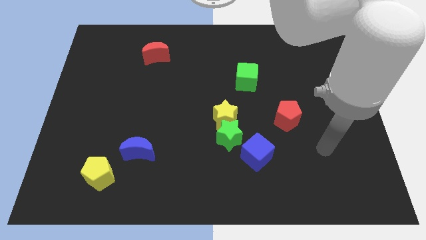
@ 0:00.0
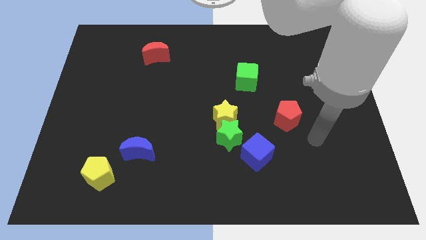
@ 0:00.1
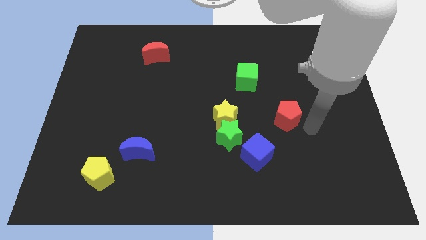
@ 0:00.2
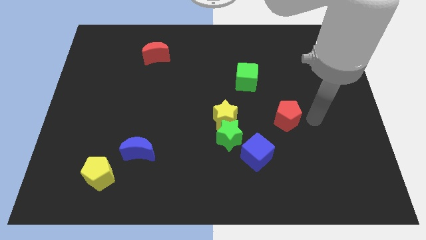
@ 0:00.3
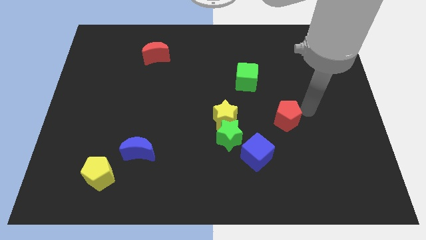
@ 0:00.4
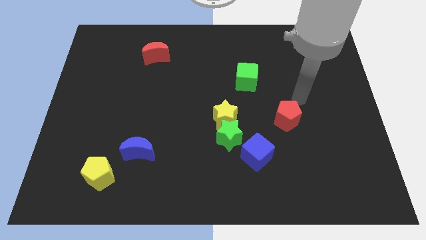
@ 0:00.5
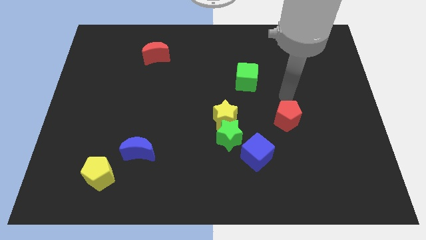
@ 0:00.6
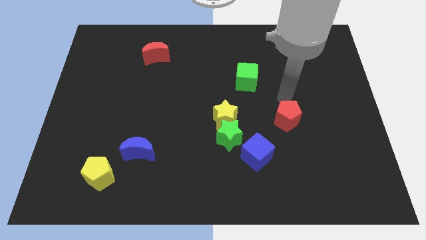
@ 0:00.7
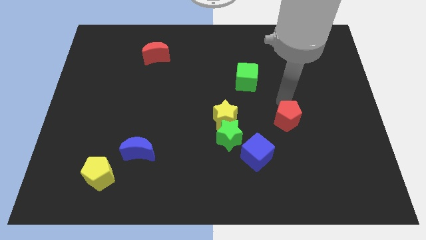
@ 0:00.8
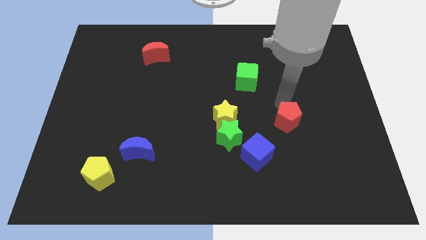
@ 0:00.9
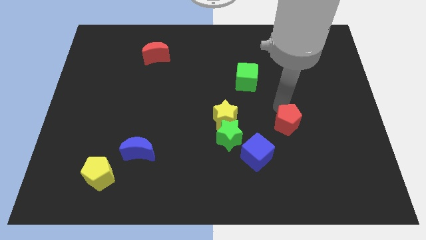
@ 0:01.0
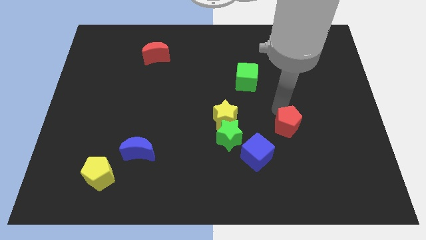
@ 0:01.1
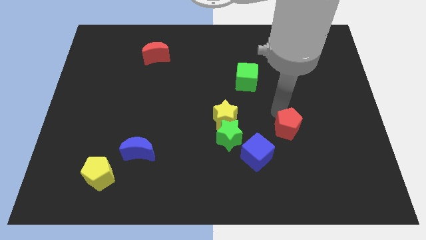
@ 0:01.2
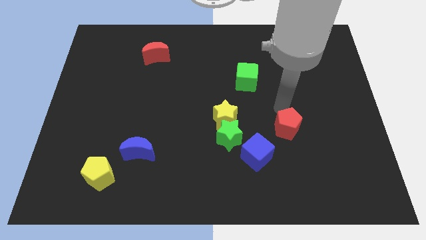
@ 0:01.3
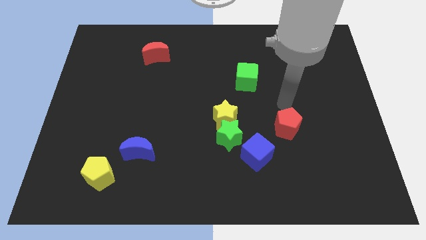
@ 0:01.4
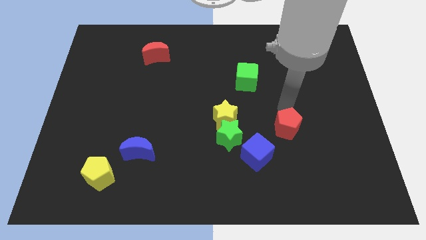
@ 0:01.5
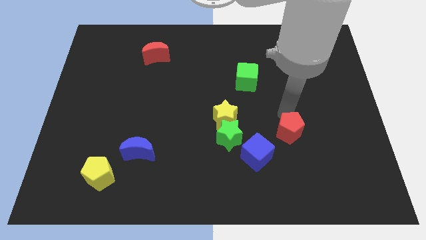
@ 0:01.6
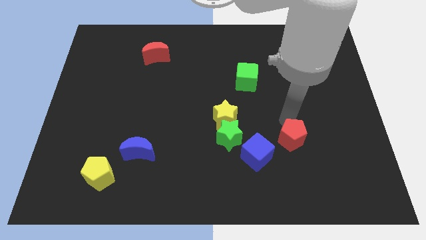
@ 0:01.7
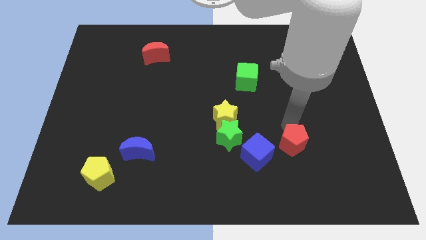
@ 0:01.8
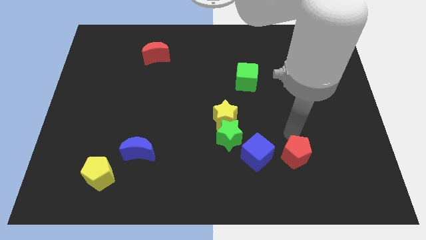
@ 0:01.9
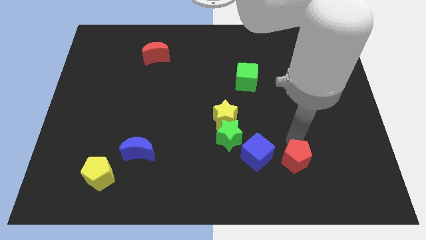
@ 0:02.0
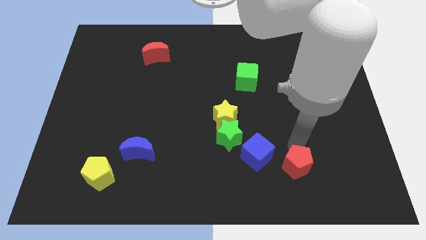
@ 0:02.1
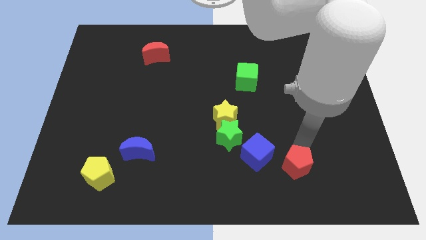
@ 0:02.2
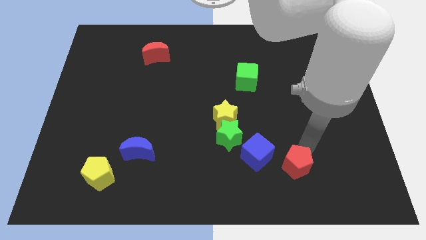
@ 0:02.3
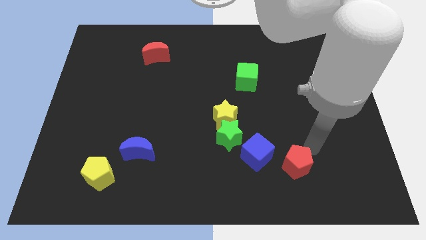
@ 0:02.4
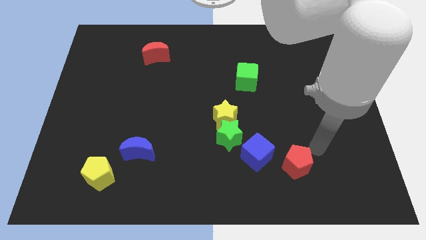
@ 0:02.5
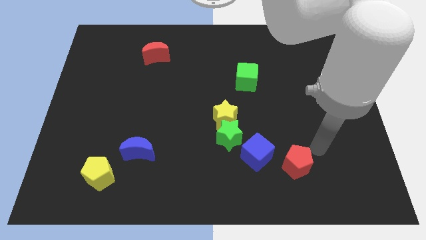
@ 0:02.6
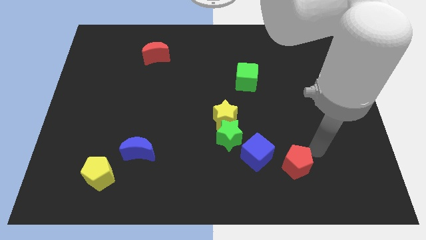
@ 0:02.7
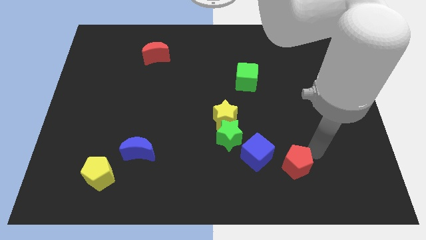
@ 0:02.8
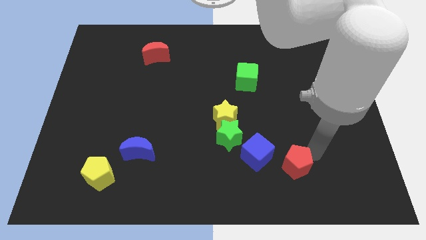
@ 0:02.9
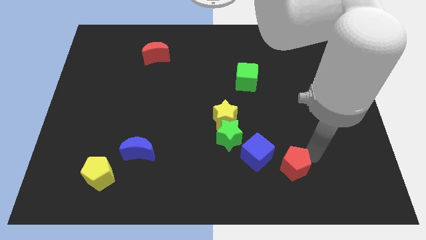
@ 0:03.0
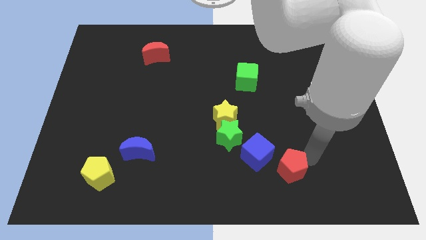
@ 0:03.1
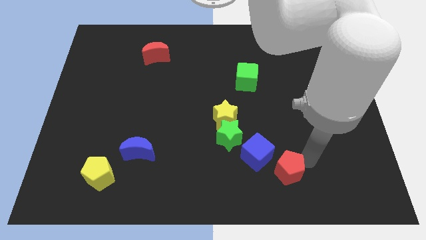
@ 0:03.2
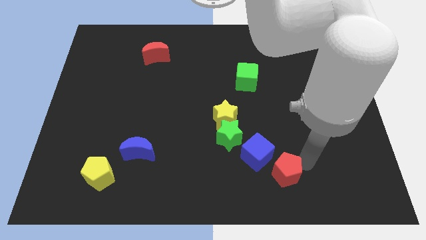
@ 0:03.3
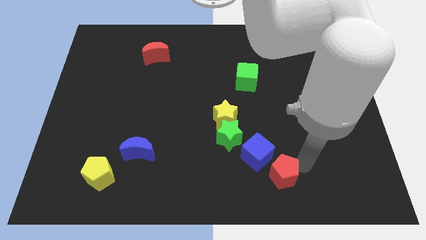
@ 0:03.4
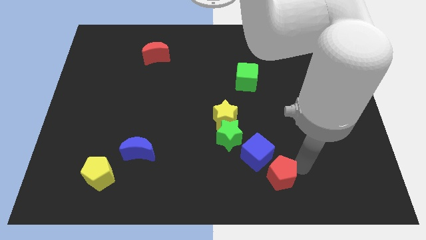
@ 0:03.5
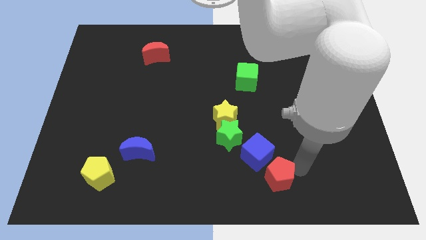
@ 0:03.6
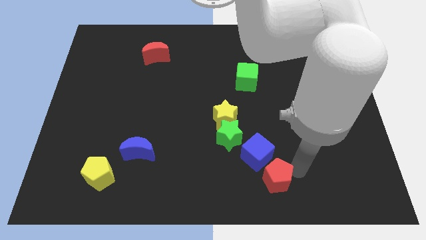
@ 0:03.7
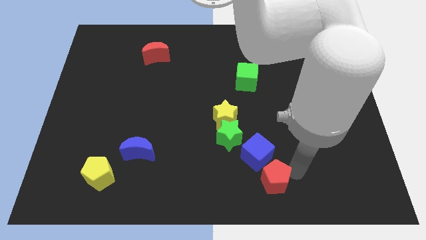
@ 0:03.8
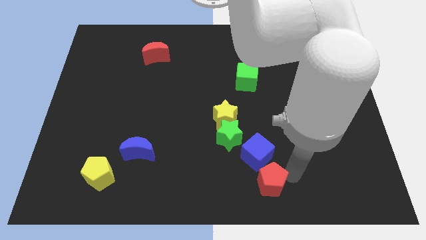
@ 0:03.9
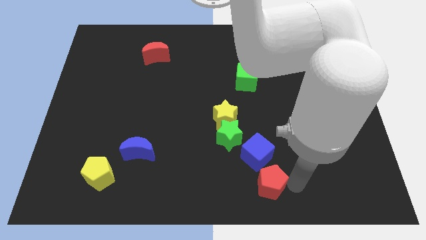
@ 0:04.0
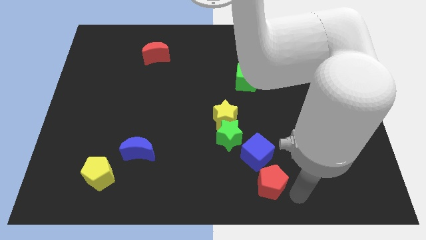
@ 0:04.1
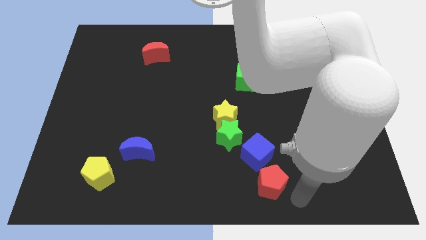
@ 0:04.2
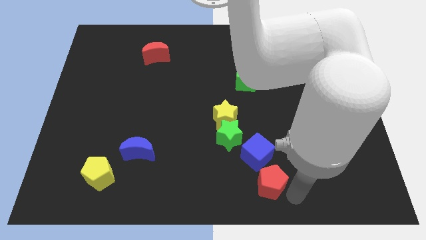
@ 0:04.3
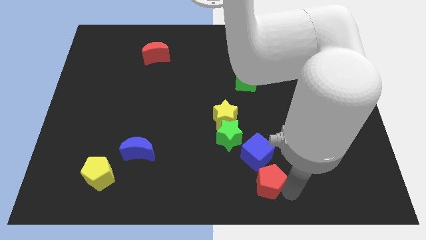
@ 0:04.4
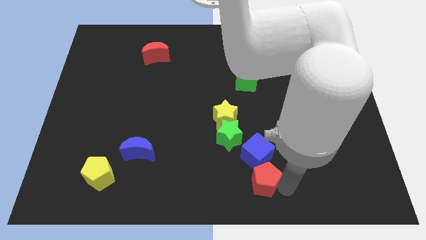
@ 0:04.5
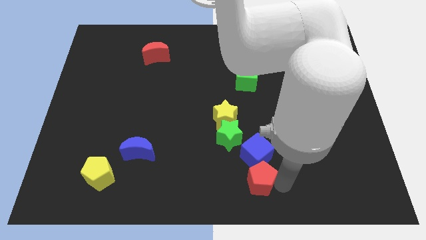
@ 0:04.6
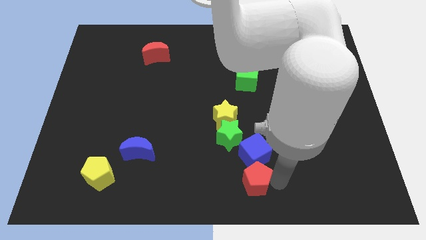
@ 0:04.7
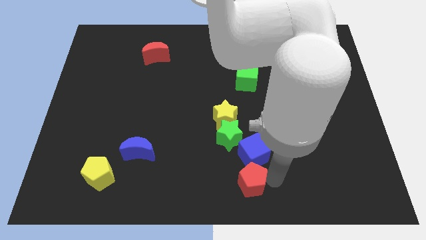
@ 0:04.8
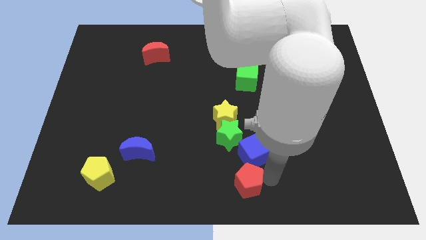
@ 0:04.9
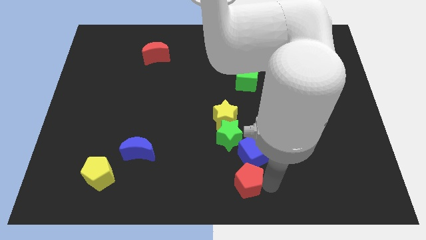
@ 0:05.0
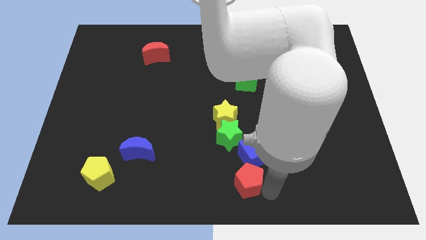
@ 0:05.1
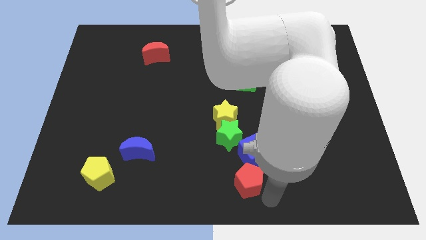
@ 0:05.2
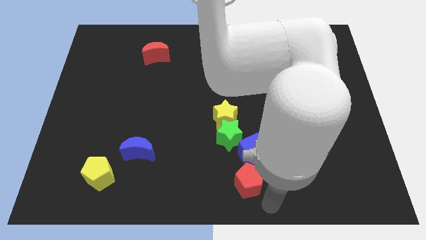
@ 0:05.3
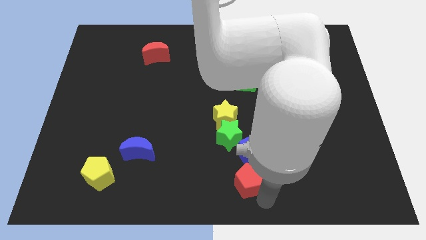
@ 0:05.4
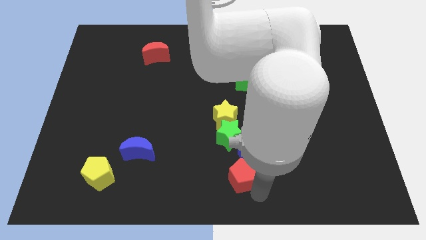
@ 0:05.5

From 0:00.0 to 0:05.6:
push the red pentagon to the bottom side of the yellow star
